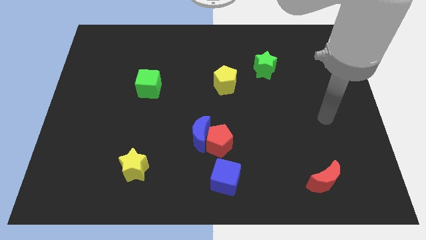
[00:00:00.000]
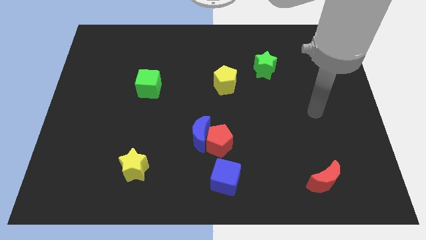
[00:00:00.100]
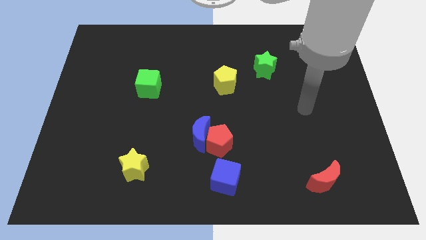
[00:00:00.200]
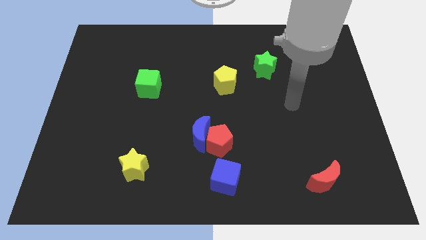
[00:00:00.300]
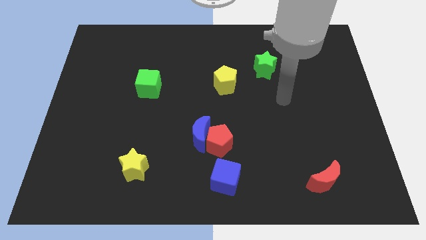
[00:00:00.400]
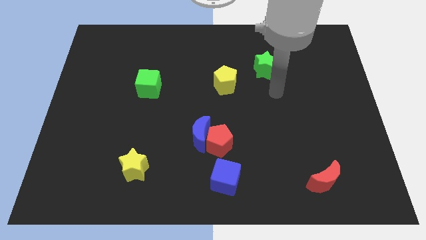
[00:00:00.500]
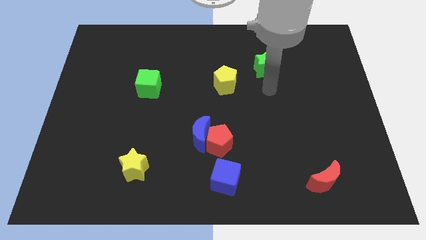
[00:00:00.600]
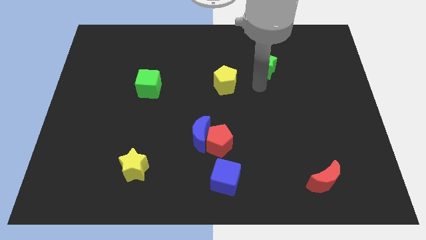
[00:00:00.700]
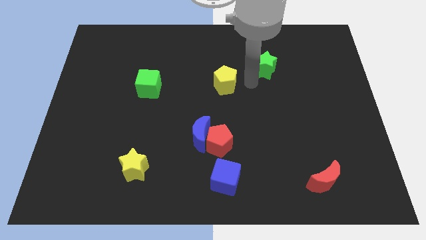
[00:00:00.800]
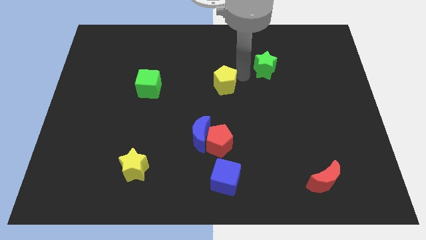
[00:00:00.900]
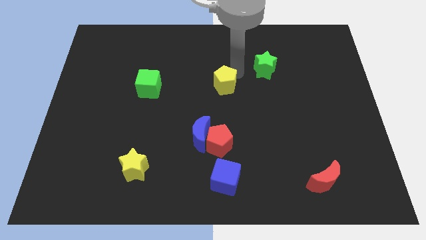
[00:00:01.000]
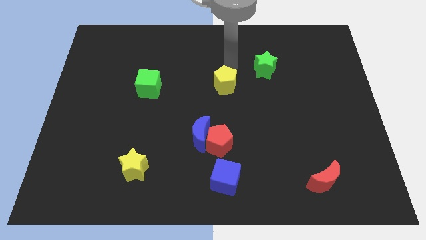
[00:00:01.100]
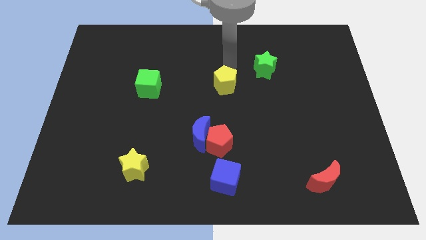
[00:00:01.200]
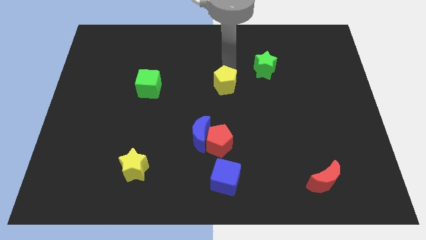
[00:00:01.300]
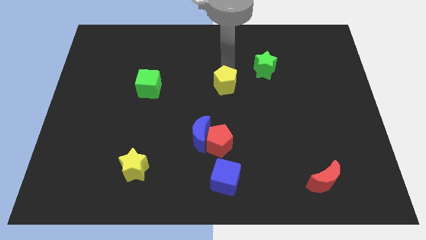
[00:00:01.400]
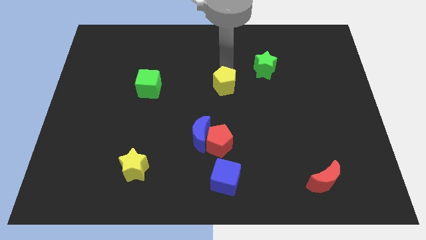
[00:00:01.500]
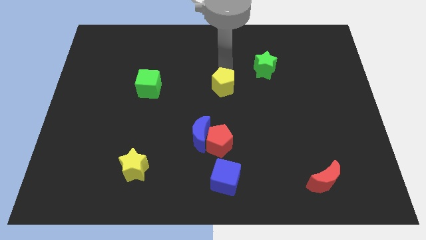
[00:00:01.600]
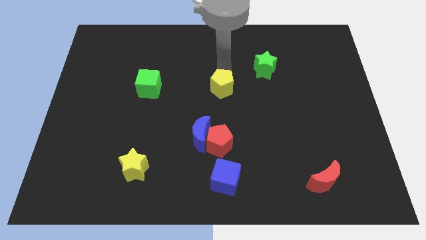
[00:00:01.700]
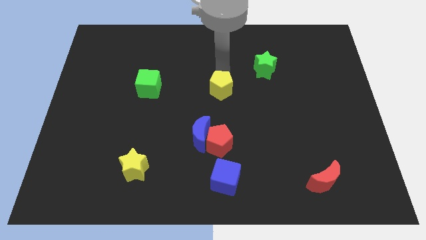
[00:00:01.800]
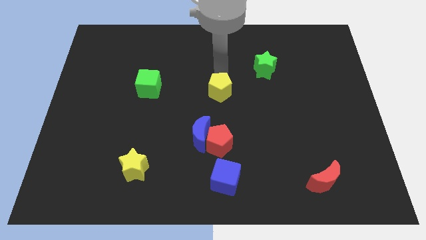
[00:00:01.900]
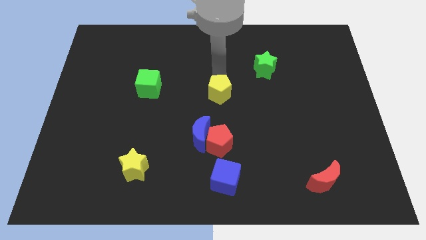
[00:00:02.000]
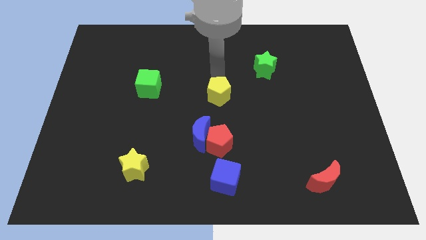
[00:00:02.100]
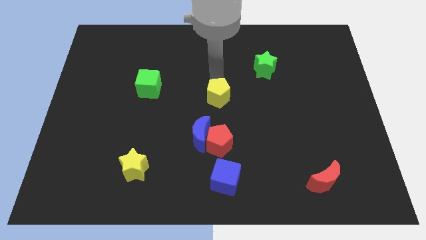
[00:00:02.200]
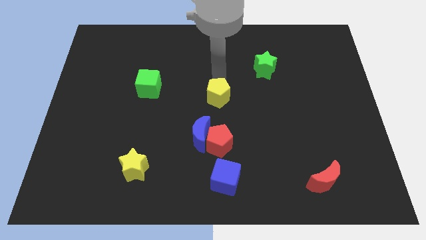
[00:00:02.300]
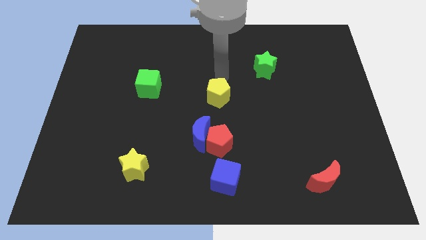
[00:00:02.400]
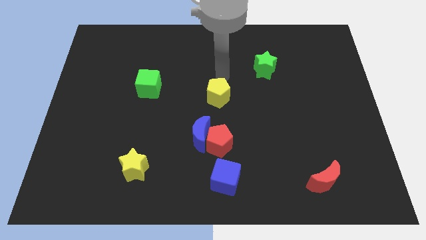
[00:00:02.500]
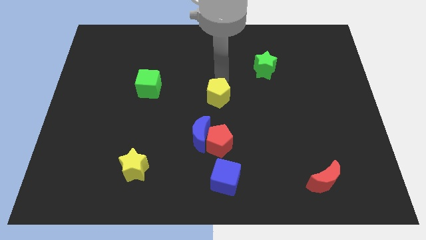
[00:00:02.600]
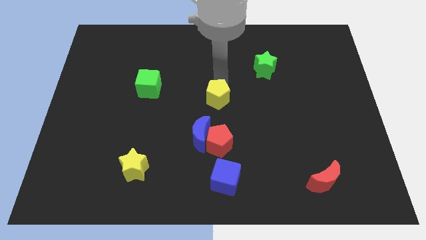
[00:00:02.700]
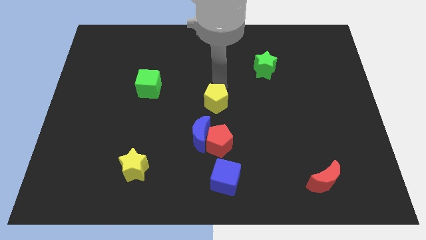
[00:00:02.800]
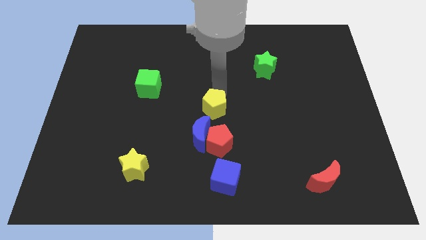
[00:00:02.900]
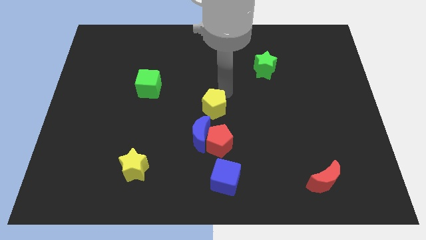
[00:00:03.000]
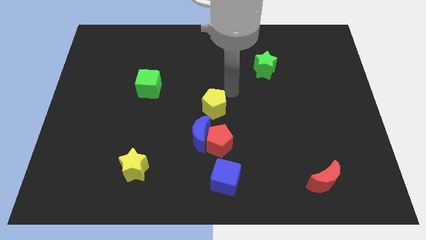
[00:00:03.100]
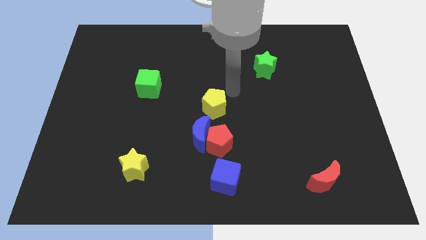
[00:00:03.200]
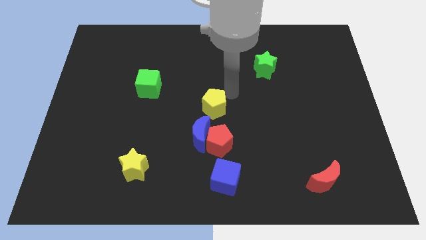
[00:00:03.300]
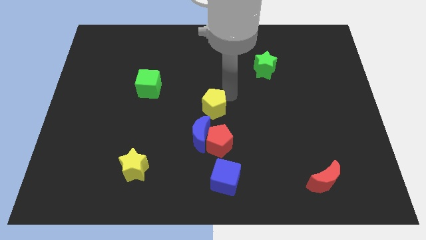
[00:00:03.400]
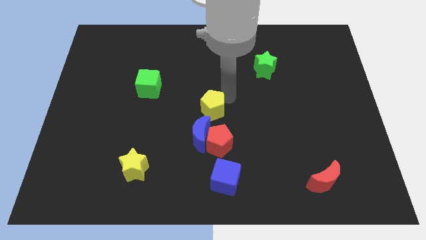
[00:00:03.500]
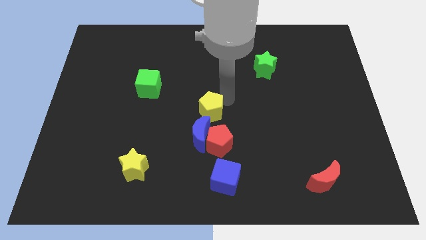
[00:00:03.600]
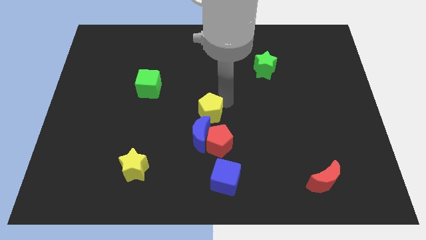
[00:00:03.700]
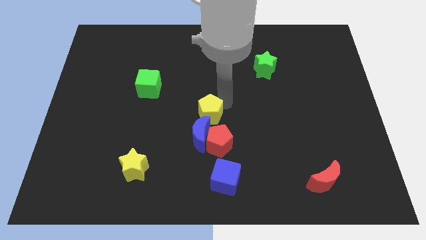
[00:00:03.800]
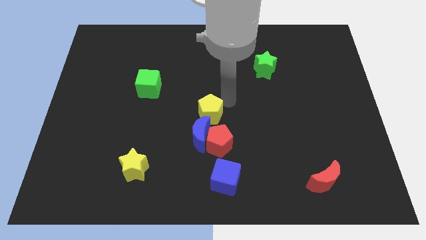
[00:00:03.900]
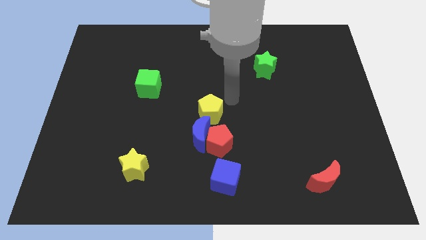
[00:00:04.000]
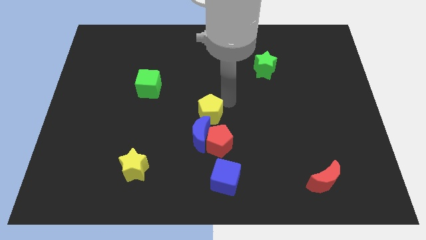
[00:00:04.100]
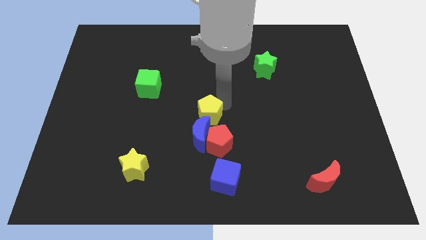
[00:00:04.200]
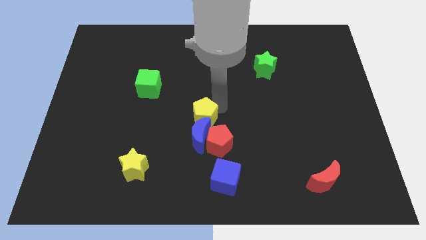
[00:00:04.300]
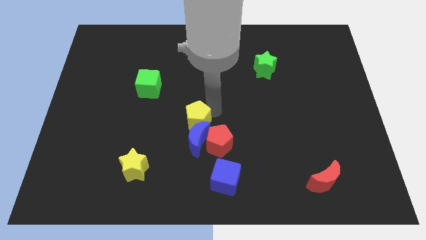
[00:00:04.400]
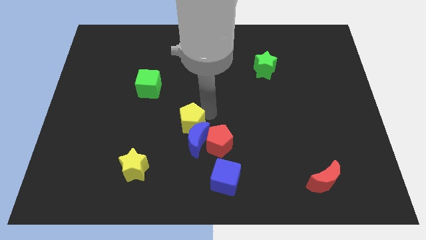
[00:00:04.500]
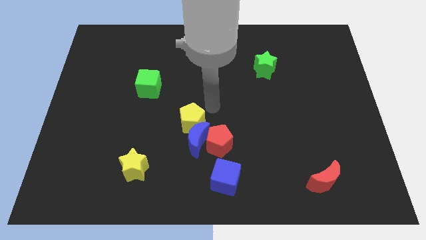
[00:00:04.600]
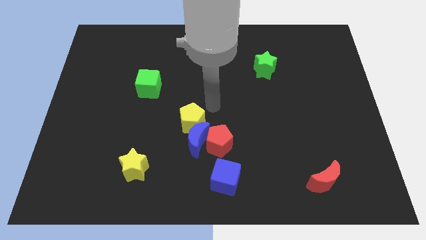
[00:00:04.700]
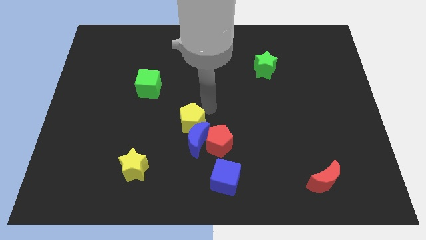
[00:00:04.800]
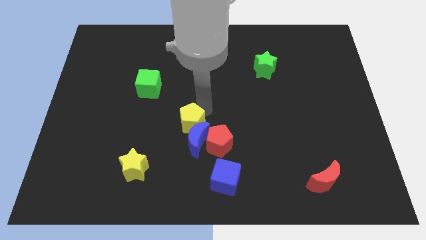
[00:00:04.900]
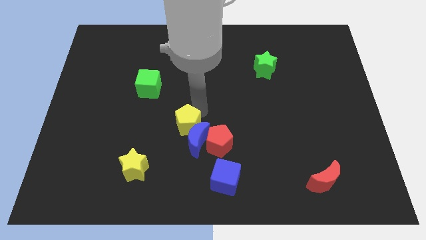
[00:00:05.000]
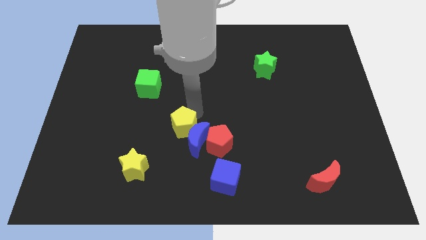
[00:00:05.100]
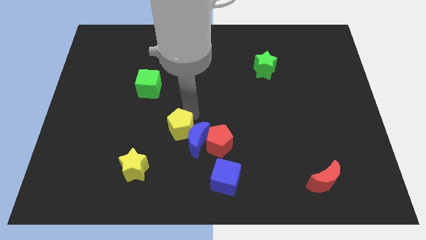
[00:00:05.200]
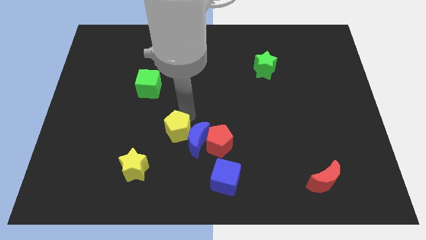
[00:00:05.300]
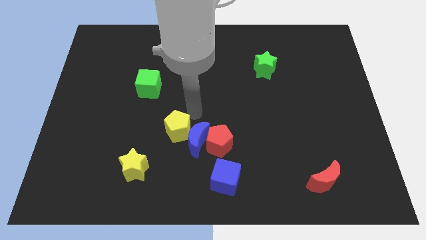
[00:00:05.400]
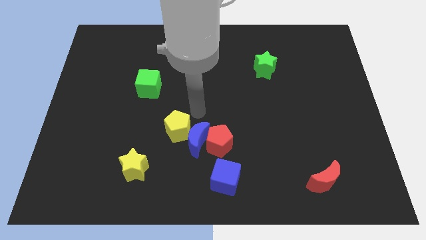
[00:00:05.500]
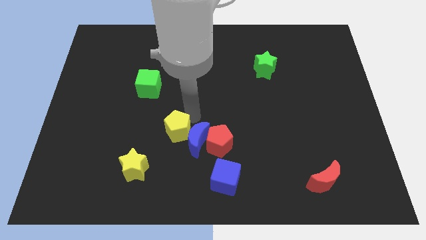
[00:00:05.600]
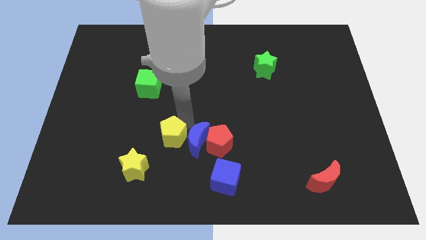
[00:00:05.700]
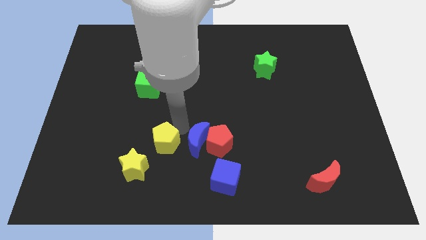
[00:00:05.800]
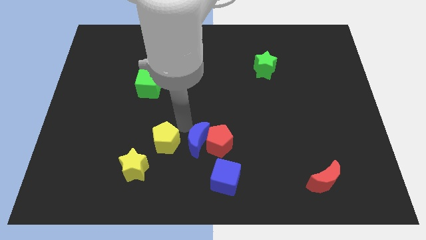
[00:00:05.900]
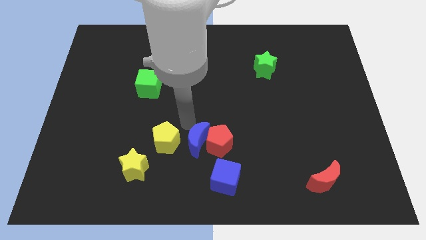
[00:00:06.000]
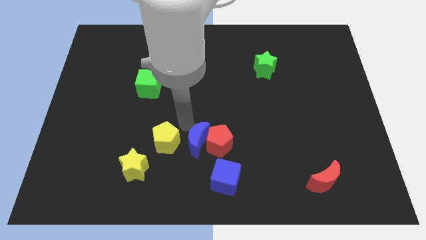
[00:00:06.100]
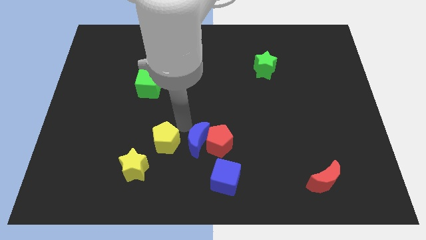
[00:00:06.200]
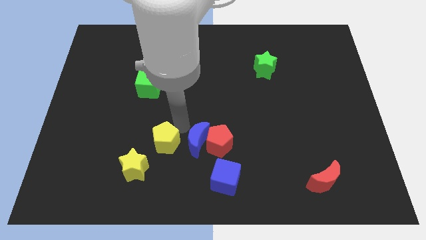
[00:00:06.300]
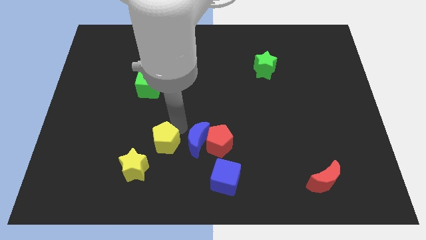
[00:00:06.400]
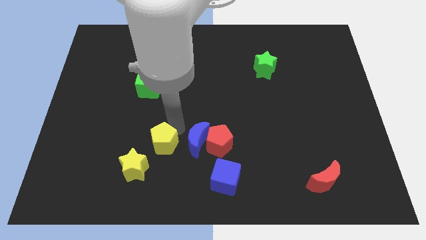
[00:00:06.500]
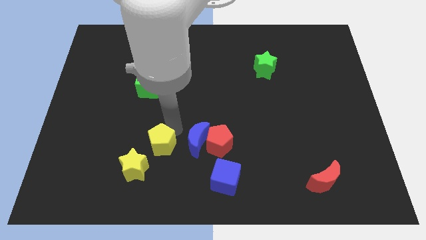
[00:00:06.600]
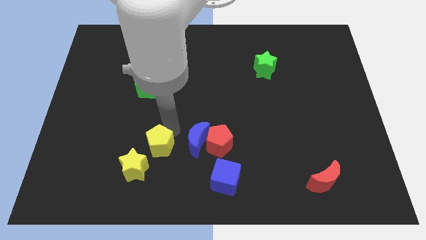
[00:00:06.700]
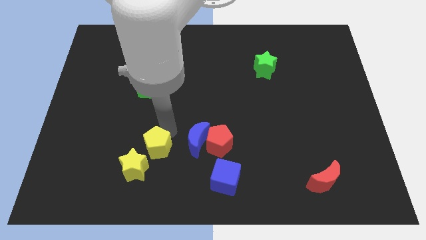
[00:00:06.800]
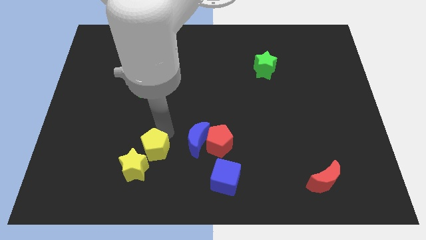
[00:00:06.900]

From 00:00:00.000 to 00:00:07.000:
slide the yellow pentagon towards the yellow star
